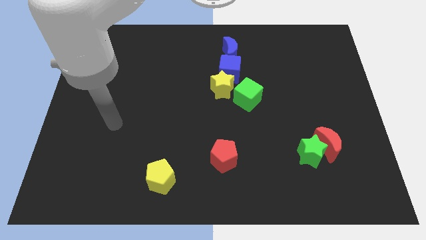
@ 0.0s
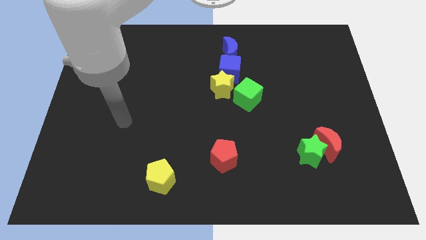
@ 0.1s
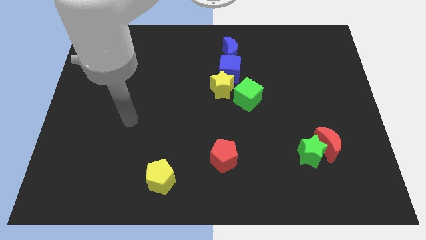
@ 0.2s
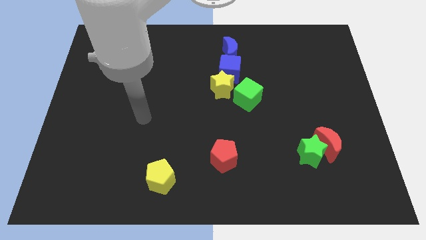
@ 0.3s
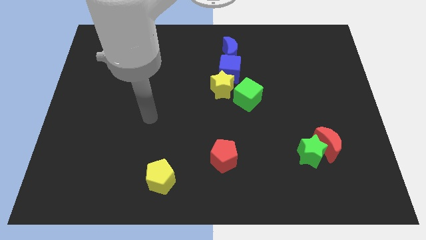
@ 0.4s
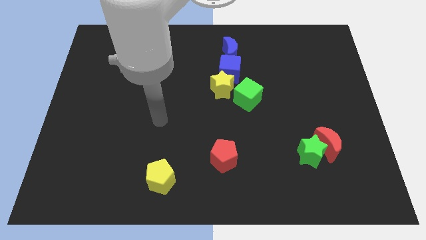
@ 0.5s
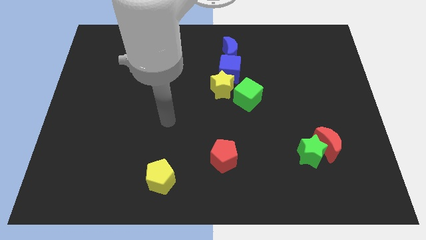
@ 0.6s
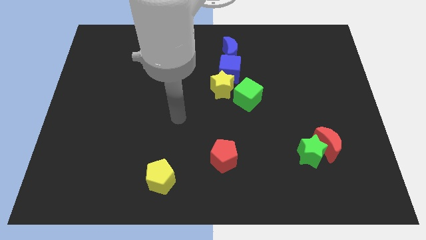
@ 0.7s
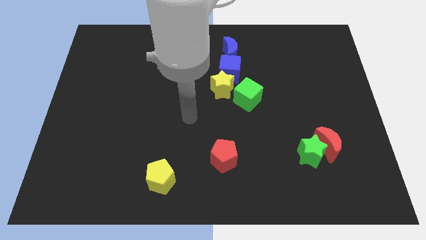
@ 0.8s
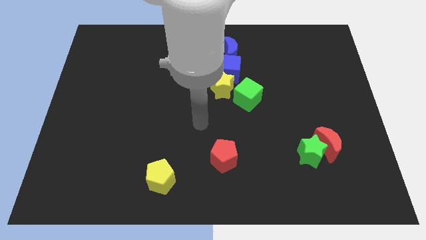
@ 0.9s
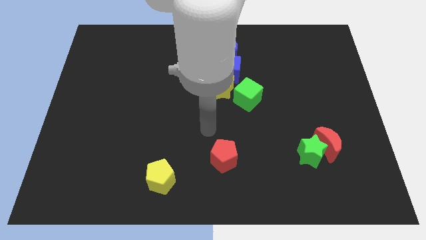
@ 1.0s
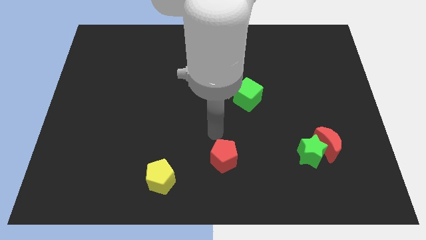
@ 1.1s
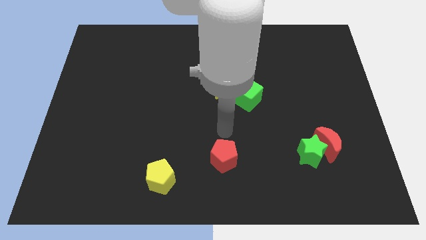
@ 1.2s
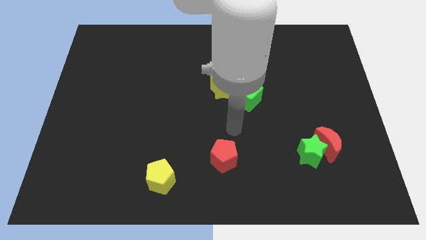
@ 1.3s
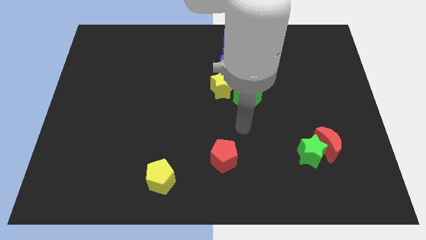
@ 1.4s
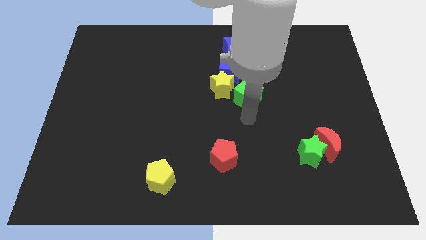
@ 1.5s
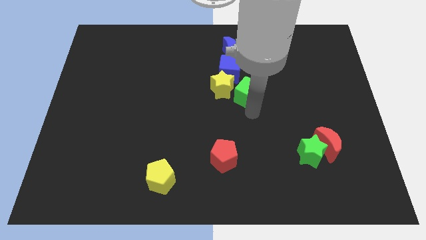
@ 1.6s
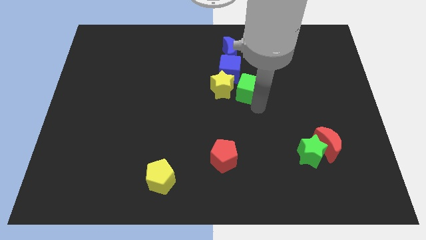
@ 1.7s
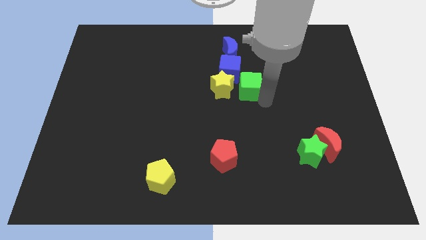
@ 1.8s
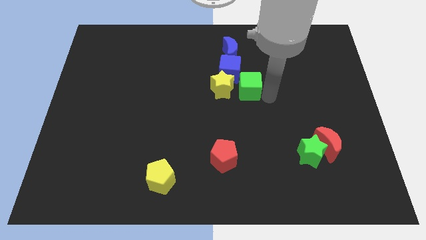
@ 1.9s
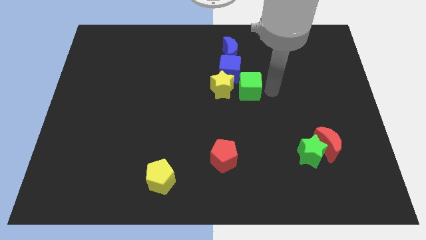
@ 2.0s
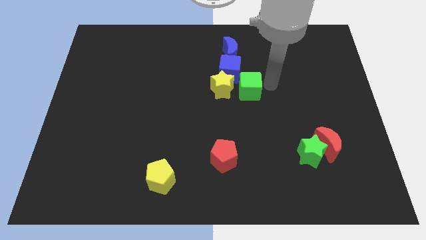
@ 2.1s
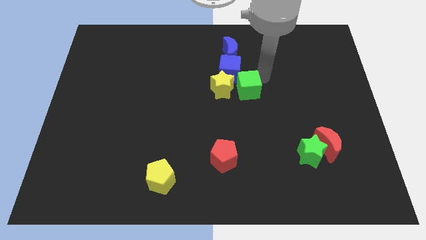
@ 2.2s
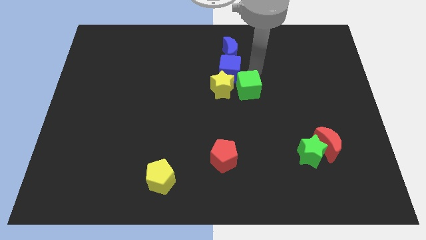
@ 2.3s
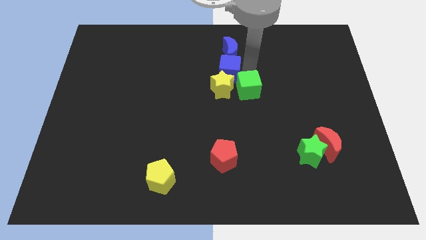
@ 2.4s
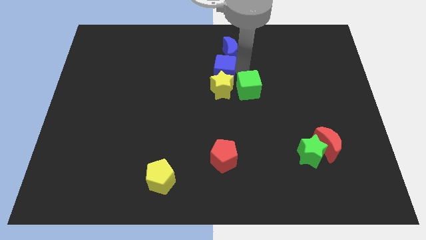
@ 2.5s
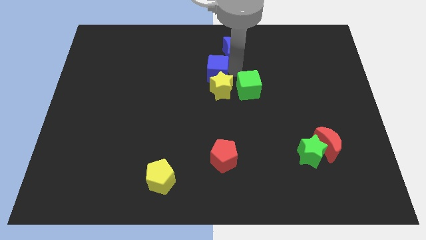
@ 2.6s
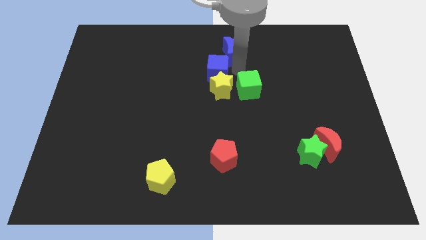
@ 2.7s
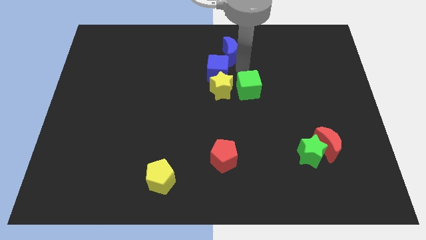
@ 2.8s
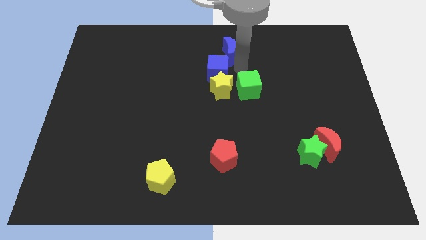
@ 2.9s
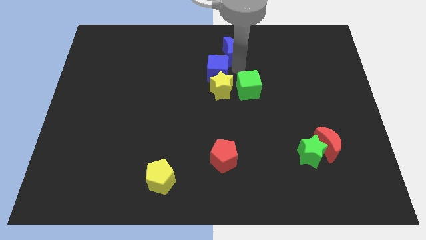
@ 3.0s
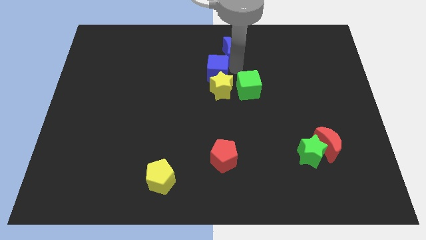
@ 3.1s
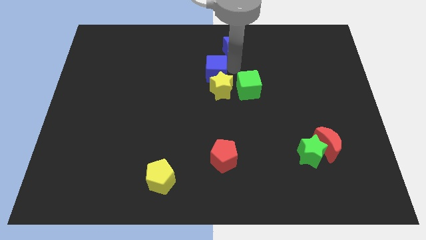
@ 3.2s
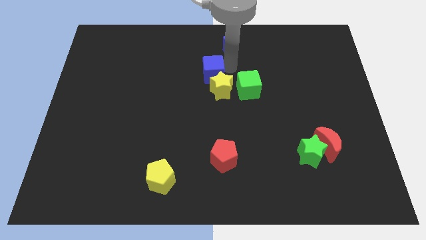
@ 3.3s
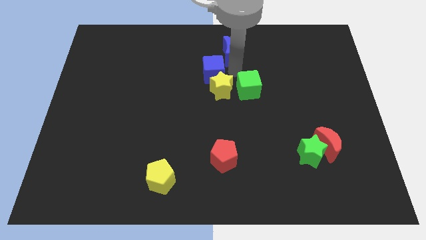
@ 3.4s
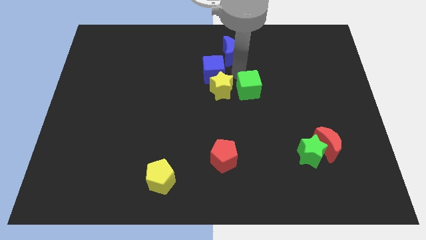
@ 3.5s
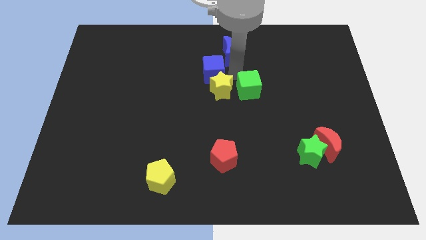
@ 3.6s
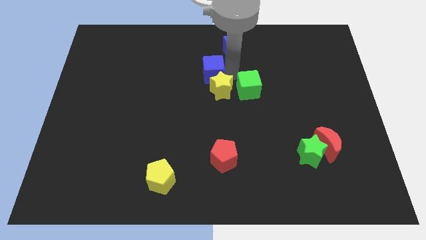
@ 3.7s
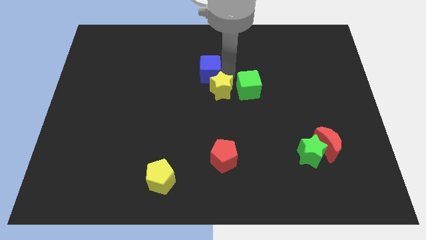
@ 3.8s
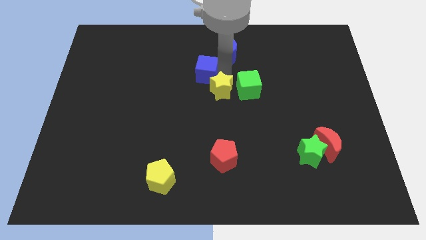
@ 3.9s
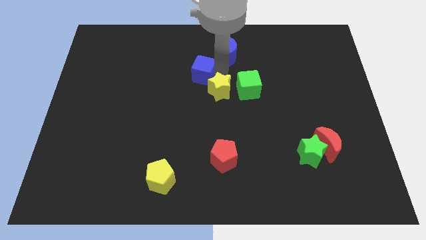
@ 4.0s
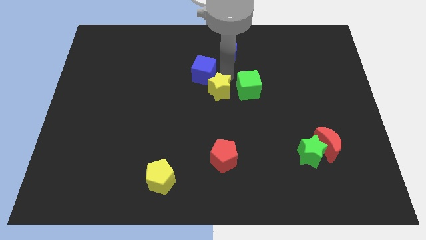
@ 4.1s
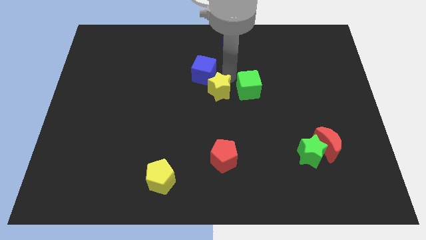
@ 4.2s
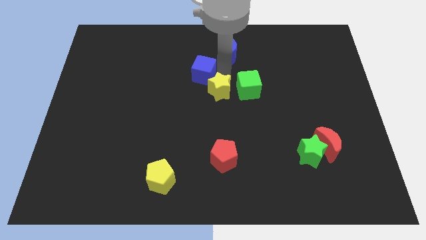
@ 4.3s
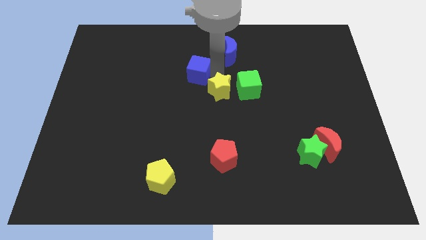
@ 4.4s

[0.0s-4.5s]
slightly slide the blue cube to the left

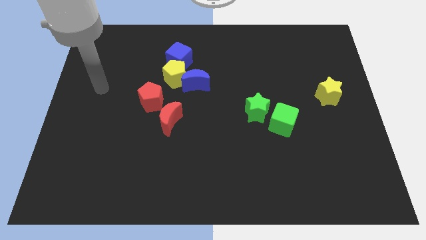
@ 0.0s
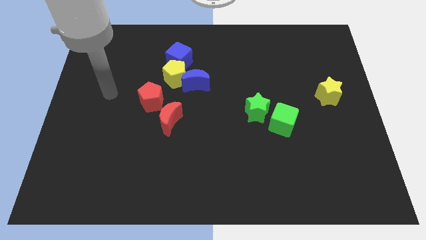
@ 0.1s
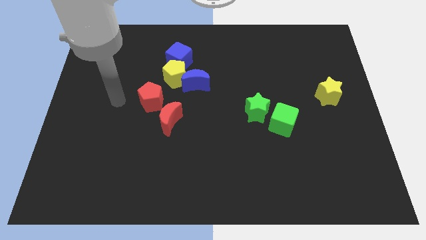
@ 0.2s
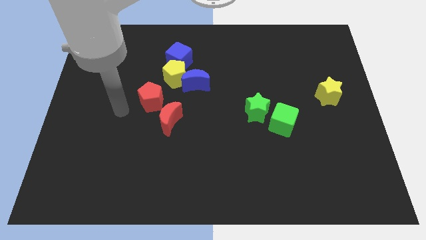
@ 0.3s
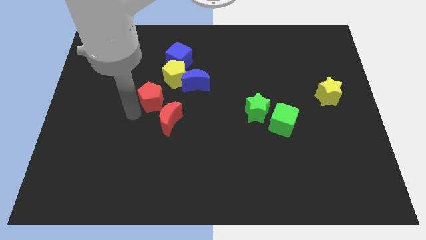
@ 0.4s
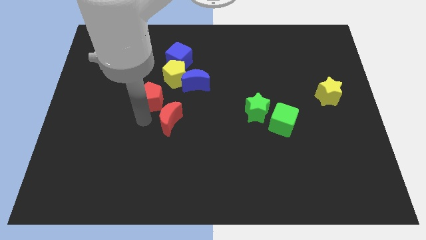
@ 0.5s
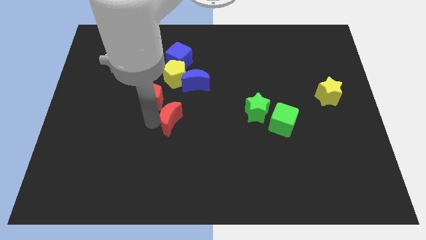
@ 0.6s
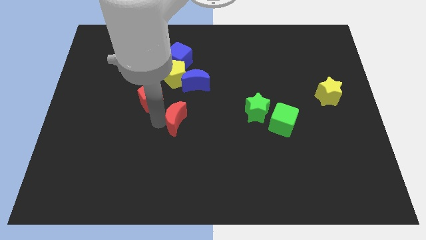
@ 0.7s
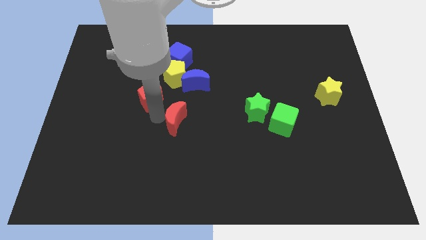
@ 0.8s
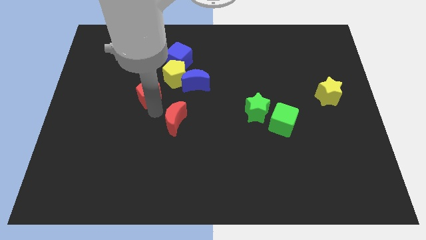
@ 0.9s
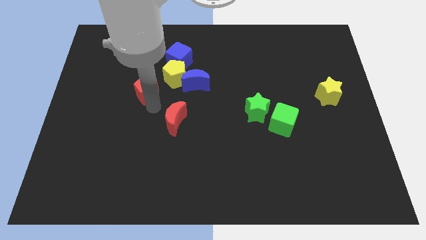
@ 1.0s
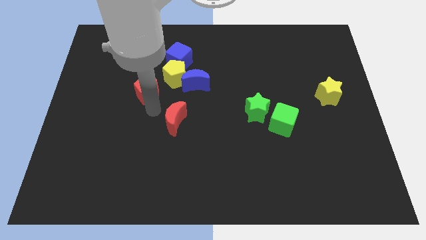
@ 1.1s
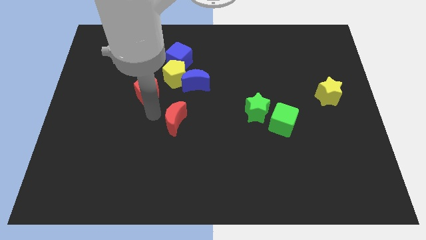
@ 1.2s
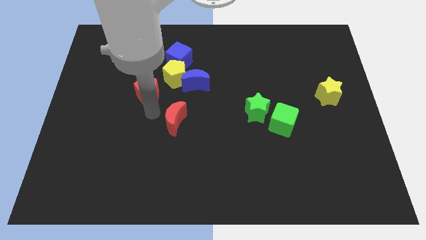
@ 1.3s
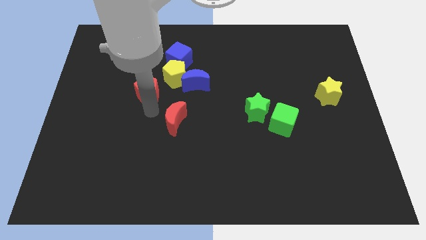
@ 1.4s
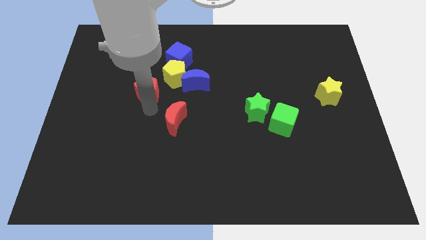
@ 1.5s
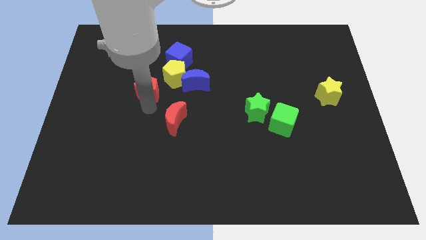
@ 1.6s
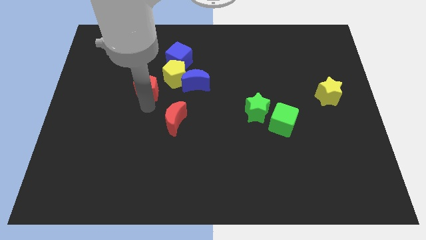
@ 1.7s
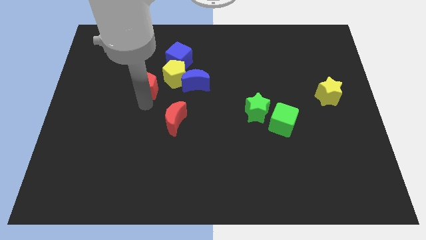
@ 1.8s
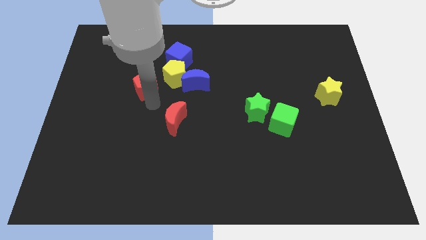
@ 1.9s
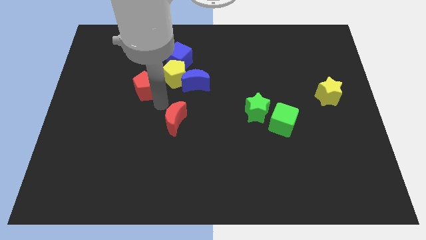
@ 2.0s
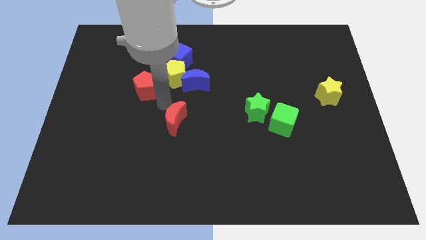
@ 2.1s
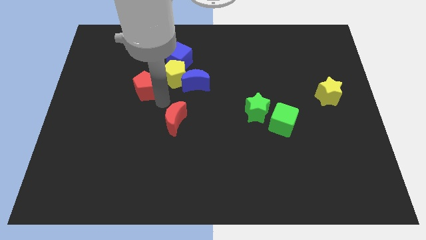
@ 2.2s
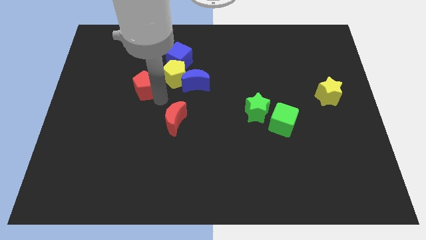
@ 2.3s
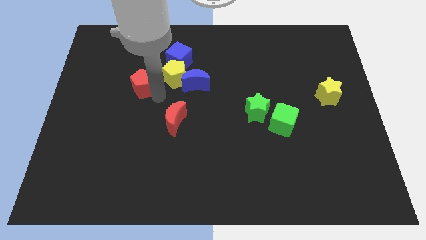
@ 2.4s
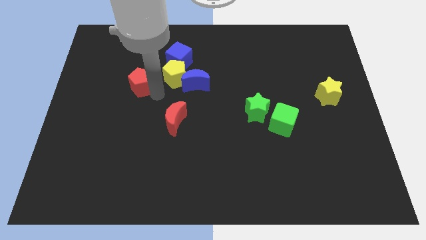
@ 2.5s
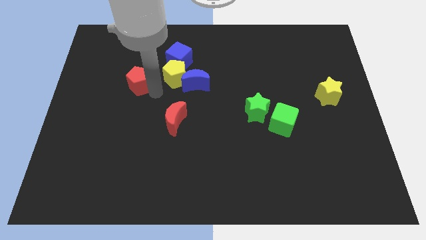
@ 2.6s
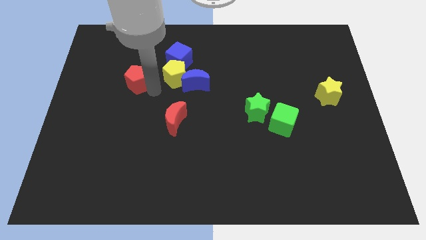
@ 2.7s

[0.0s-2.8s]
slide the red pentagon a bit diagonally upwards and to the left

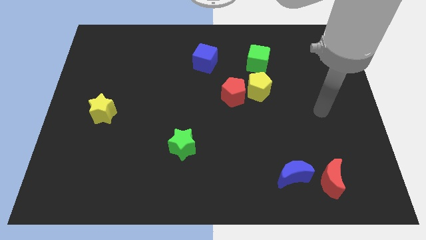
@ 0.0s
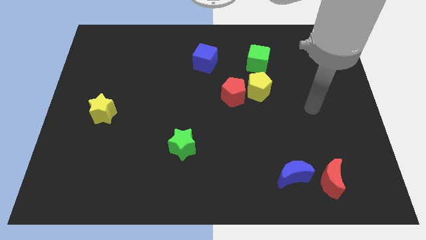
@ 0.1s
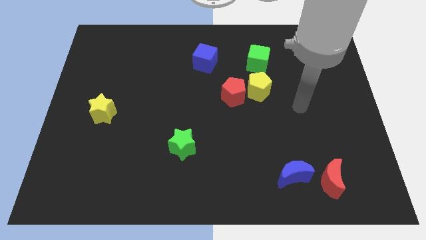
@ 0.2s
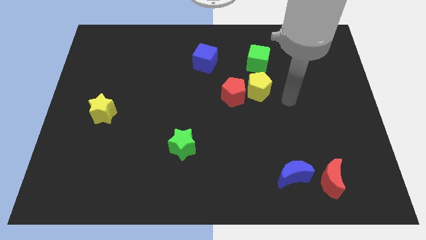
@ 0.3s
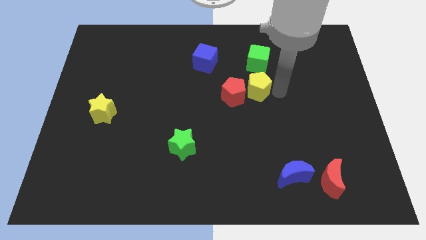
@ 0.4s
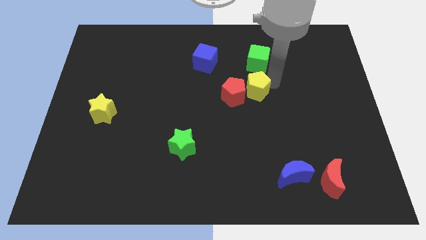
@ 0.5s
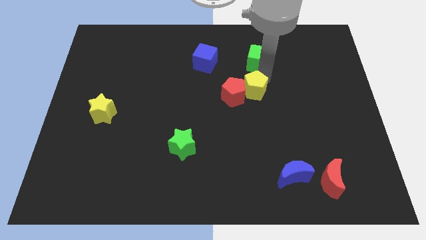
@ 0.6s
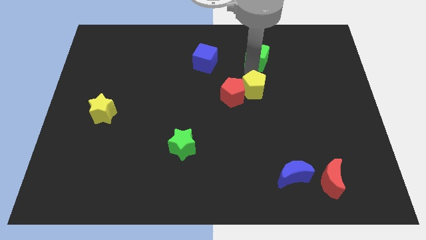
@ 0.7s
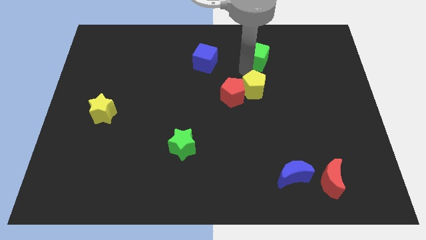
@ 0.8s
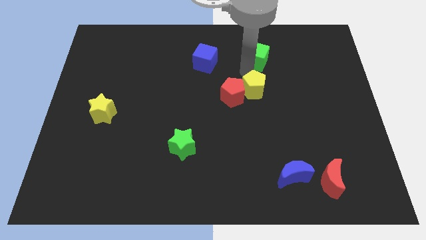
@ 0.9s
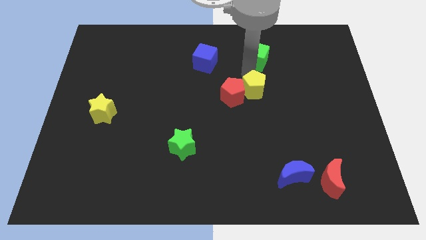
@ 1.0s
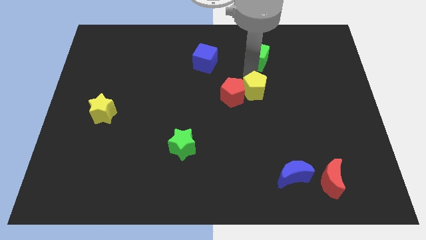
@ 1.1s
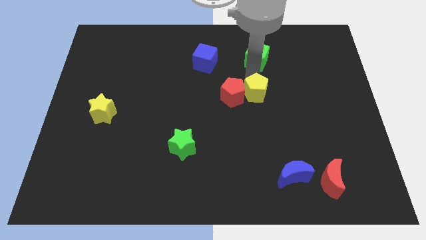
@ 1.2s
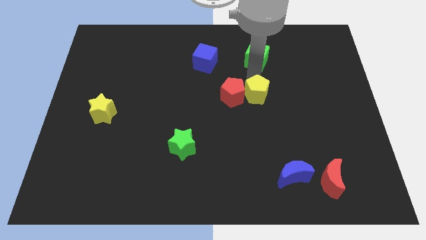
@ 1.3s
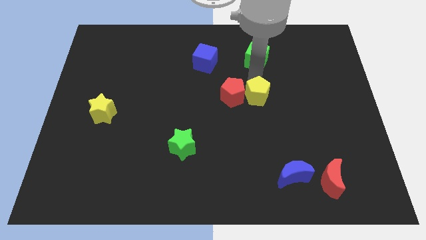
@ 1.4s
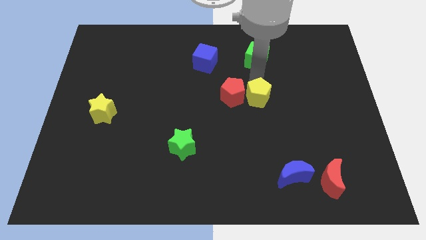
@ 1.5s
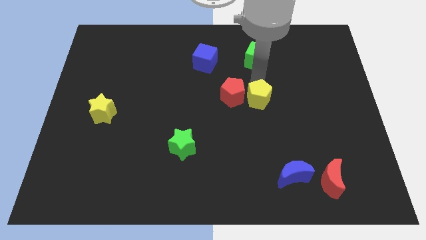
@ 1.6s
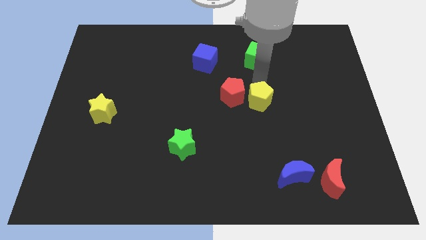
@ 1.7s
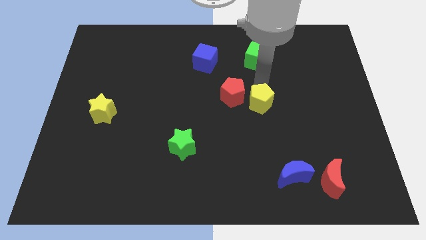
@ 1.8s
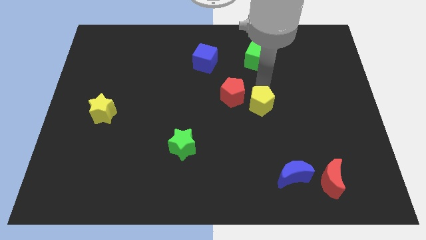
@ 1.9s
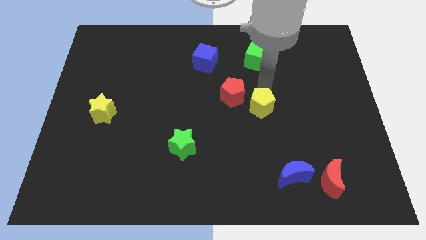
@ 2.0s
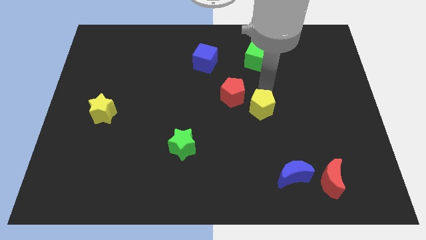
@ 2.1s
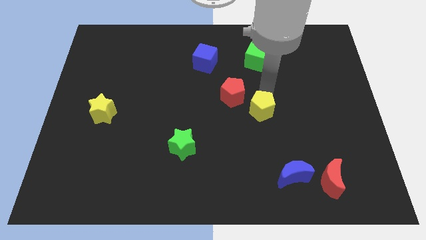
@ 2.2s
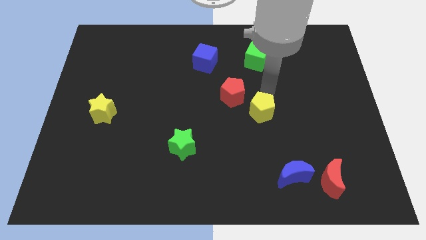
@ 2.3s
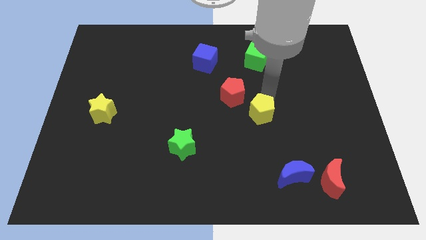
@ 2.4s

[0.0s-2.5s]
move the yellow pentagon a bit downwards
